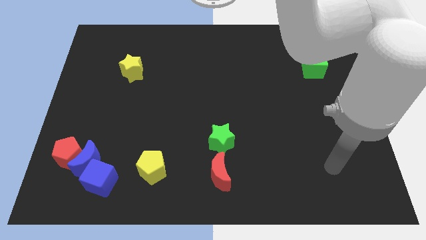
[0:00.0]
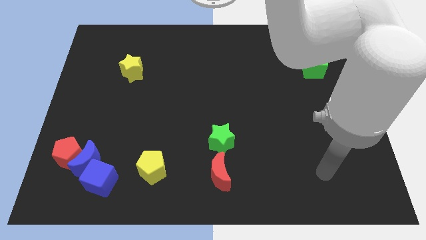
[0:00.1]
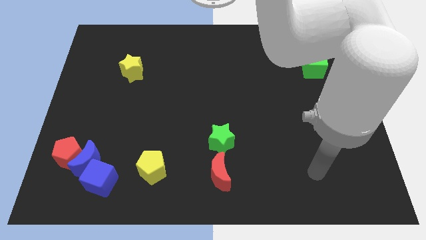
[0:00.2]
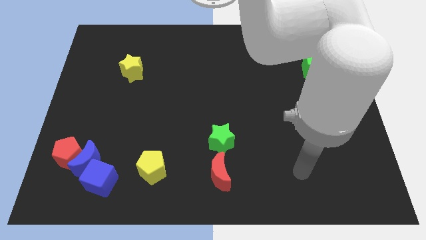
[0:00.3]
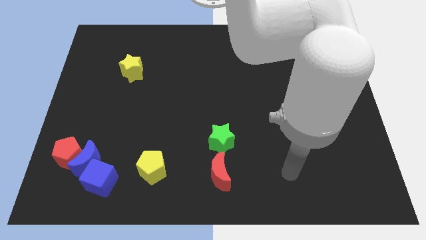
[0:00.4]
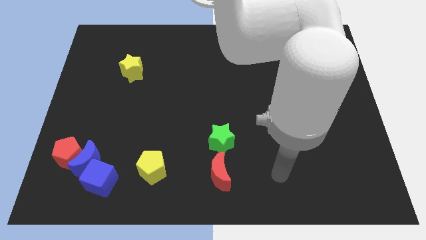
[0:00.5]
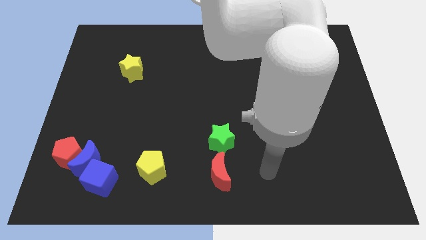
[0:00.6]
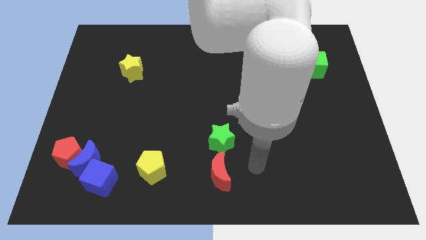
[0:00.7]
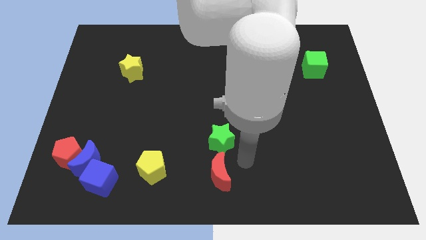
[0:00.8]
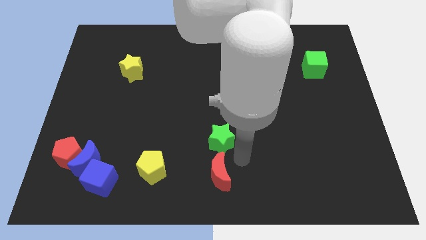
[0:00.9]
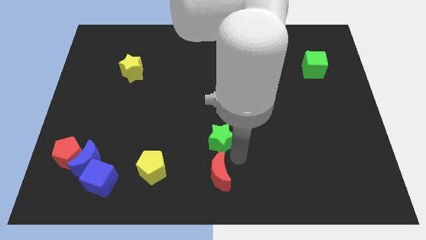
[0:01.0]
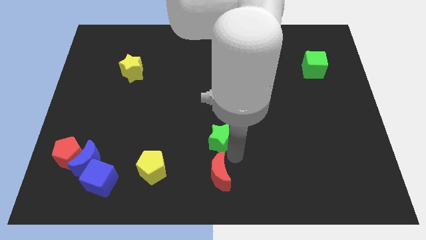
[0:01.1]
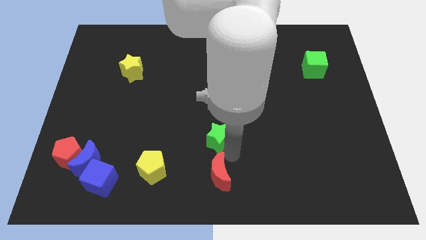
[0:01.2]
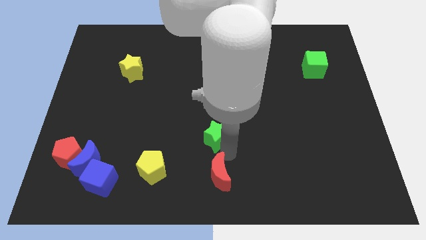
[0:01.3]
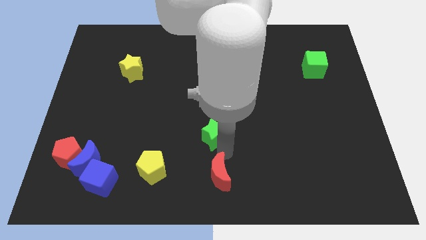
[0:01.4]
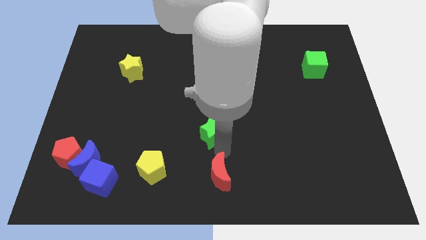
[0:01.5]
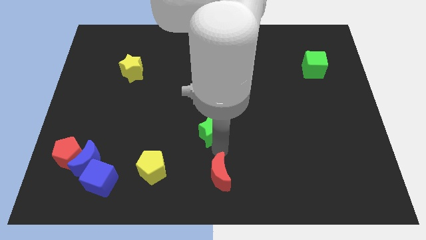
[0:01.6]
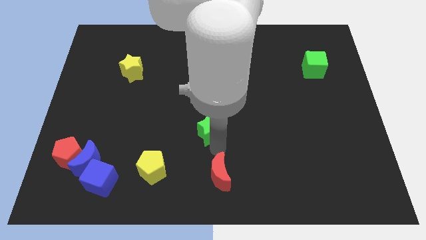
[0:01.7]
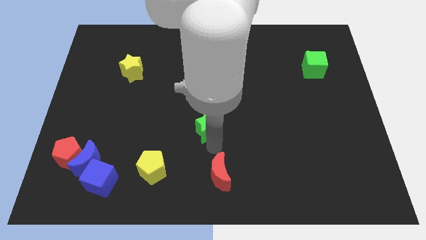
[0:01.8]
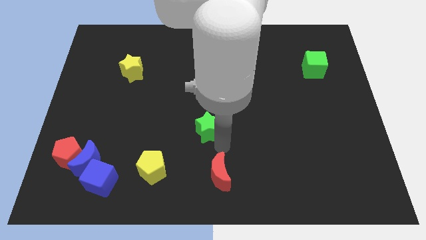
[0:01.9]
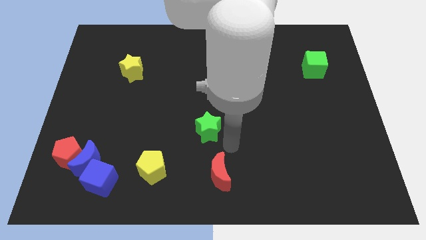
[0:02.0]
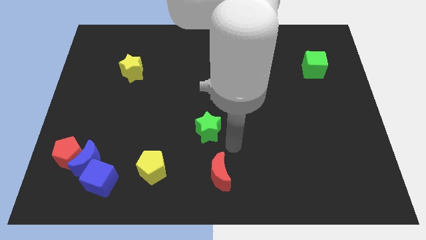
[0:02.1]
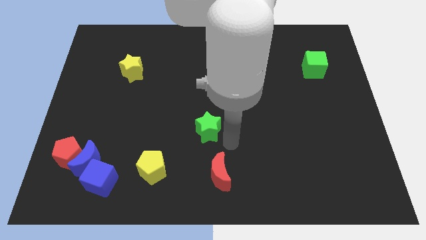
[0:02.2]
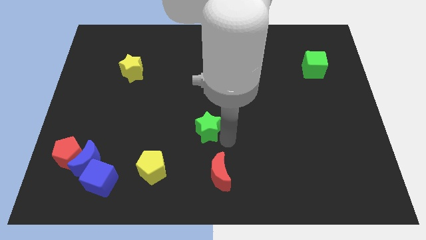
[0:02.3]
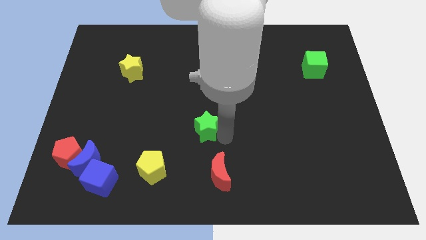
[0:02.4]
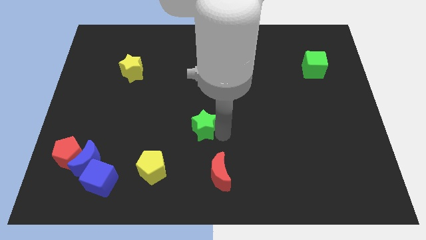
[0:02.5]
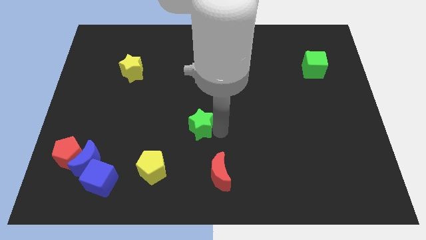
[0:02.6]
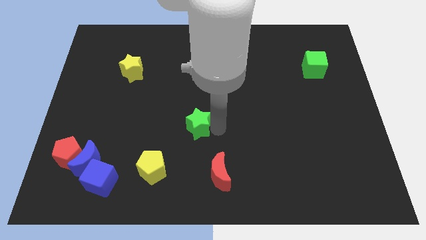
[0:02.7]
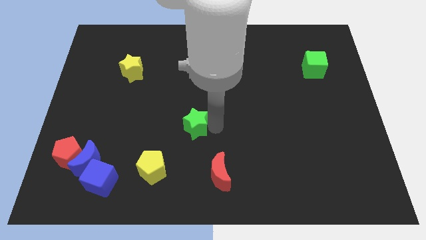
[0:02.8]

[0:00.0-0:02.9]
move the green star somewhat diagonally up and to the left

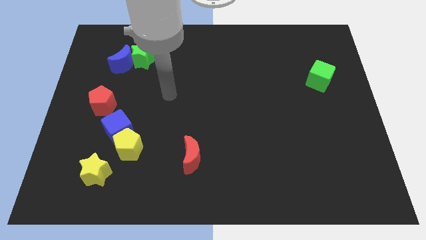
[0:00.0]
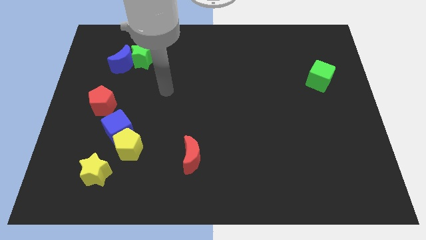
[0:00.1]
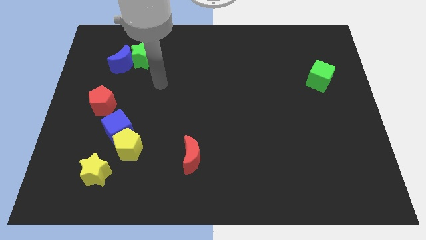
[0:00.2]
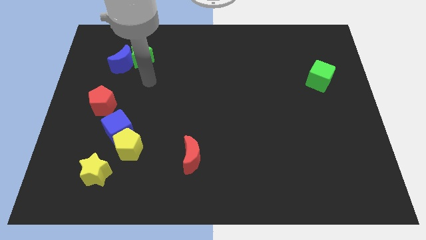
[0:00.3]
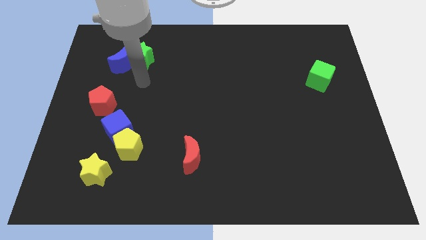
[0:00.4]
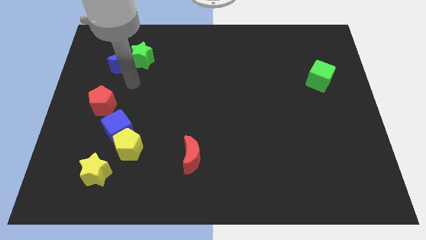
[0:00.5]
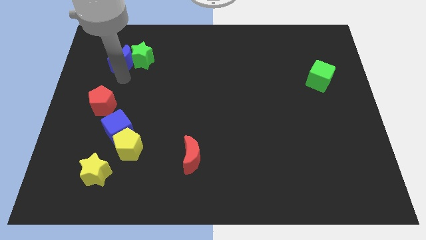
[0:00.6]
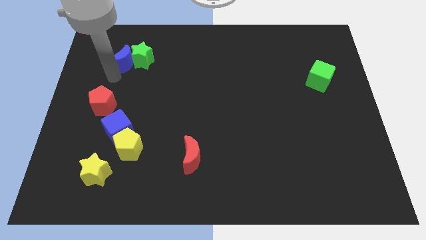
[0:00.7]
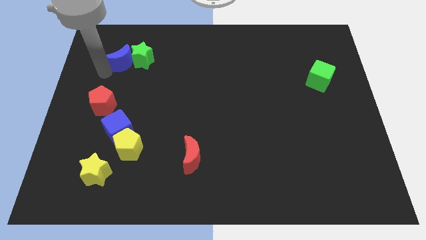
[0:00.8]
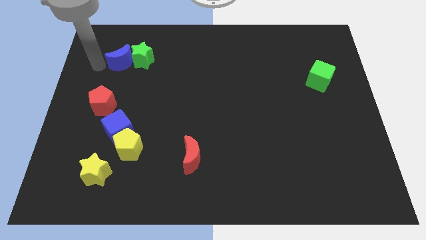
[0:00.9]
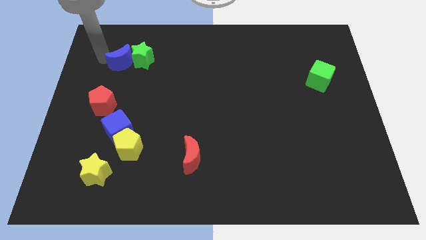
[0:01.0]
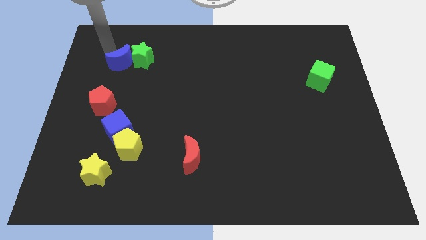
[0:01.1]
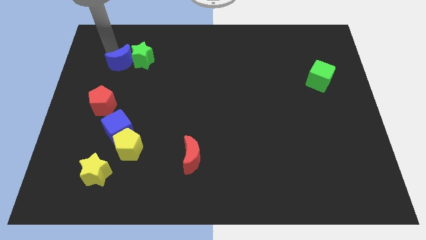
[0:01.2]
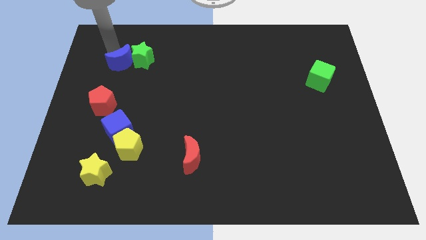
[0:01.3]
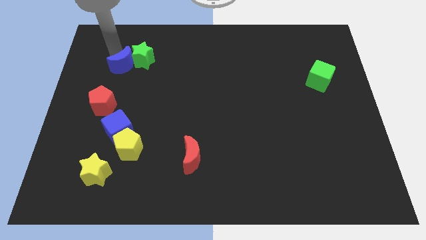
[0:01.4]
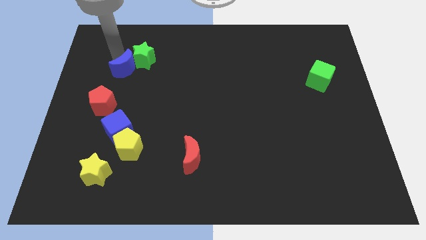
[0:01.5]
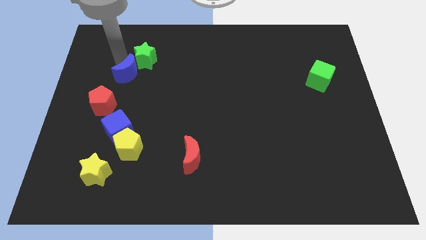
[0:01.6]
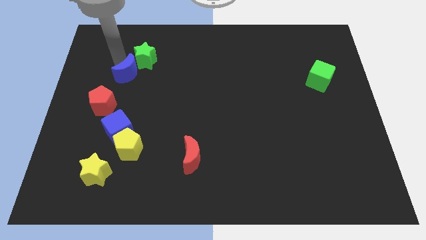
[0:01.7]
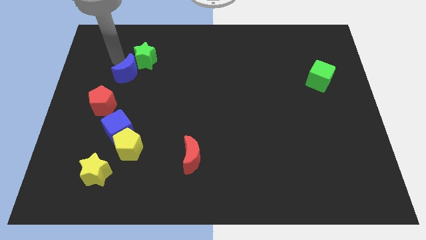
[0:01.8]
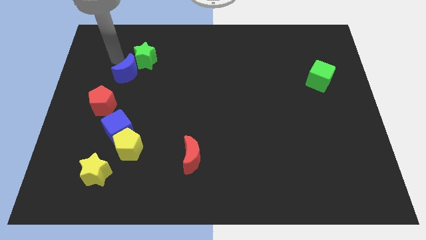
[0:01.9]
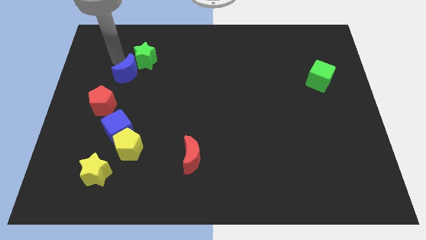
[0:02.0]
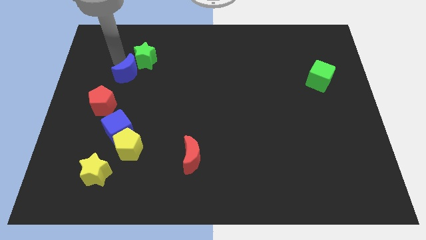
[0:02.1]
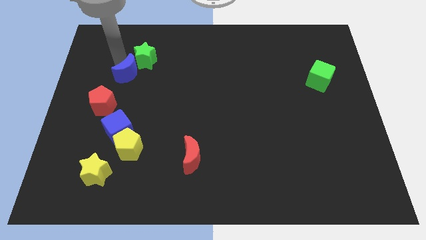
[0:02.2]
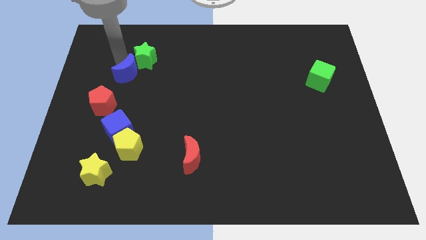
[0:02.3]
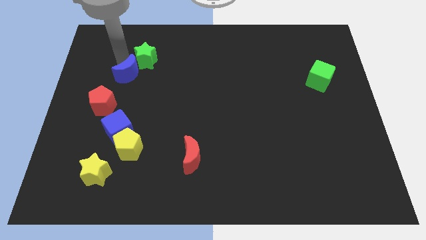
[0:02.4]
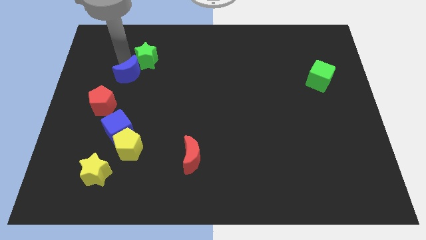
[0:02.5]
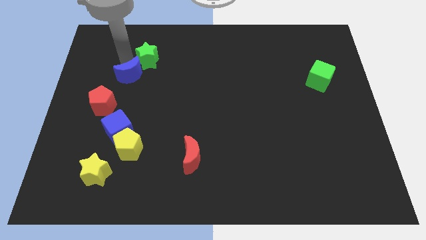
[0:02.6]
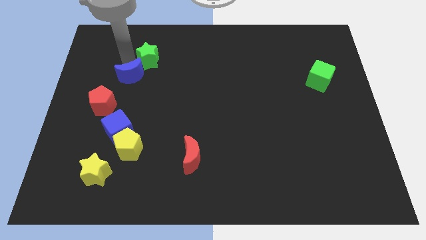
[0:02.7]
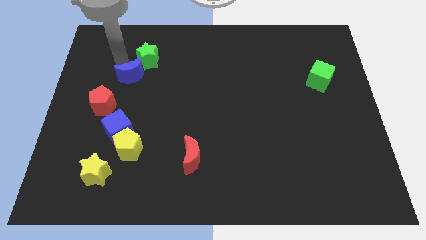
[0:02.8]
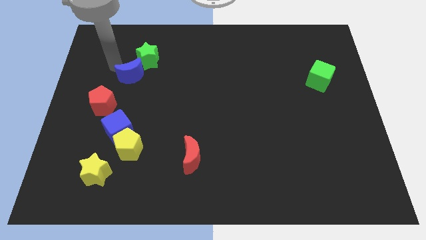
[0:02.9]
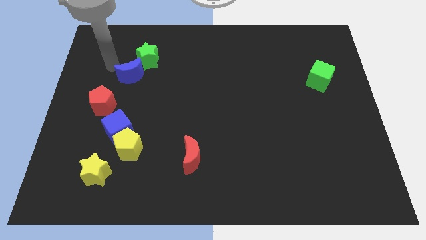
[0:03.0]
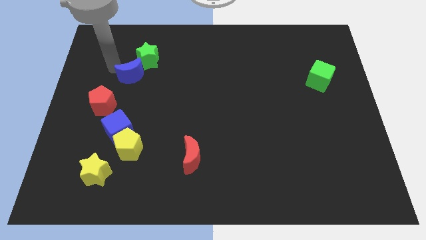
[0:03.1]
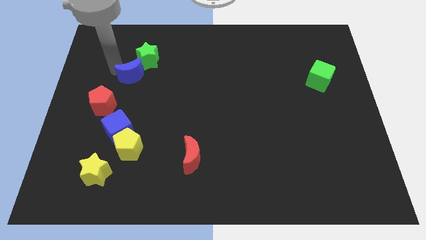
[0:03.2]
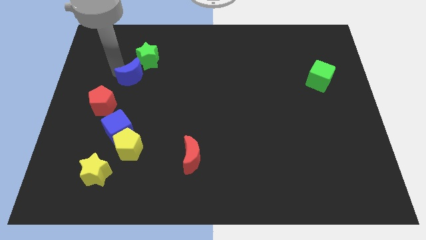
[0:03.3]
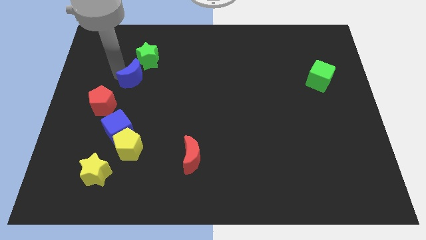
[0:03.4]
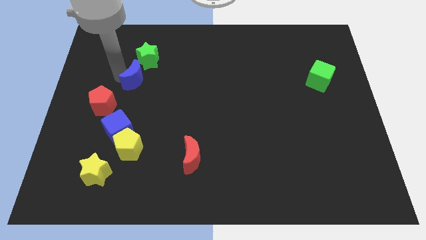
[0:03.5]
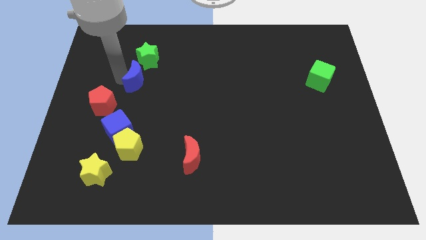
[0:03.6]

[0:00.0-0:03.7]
move the blue moon a little bit downwards and right diagonally

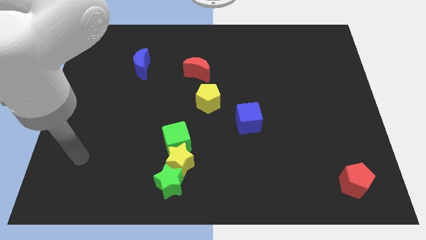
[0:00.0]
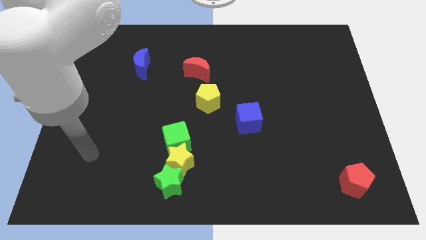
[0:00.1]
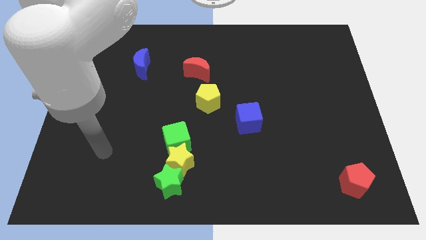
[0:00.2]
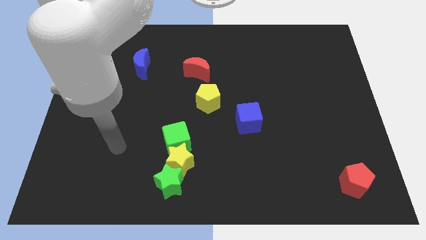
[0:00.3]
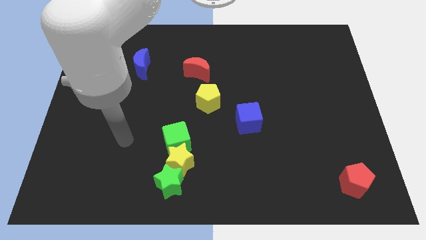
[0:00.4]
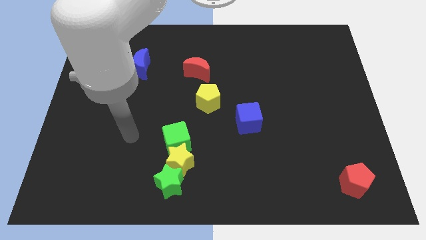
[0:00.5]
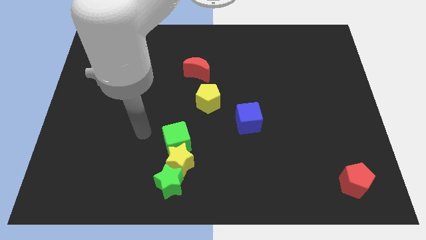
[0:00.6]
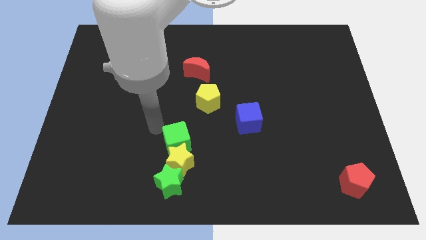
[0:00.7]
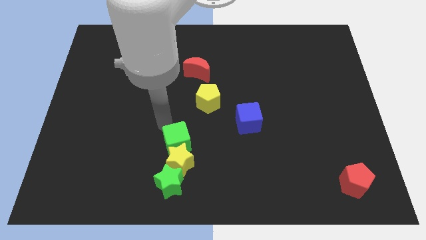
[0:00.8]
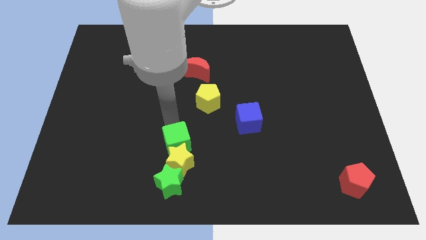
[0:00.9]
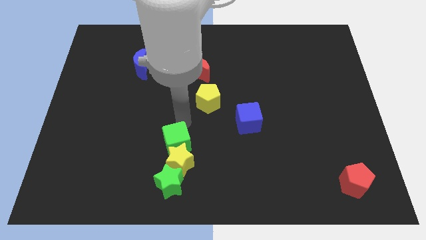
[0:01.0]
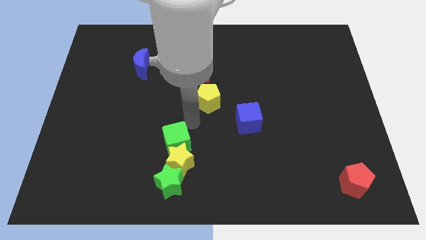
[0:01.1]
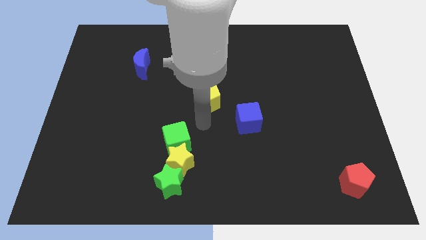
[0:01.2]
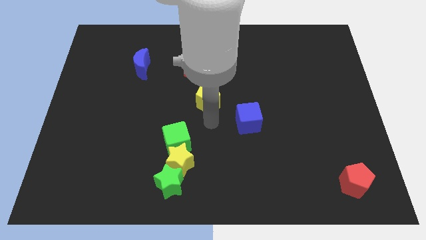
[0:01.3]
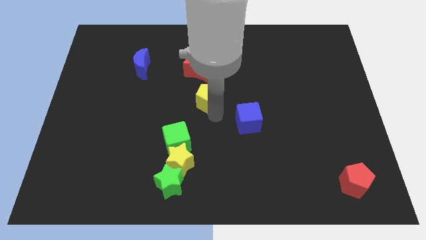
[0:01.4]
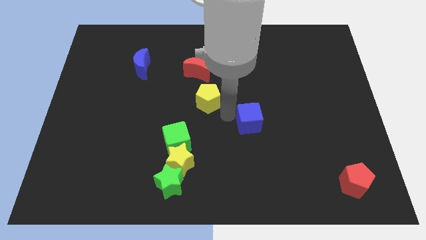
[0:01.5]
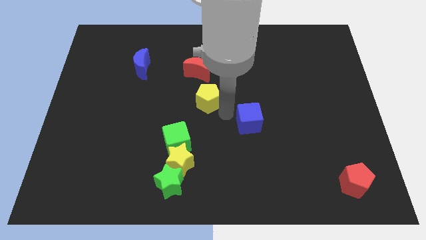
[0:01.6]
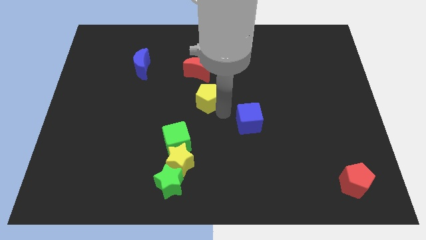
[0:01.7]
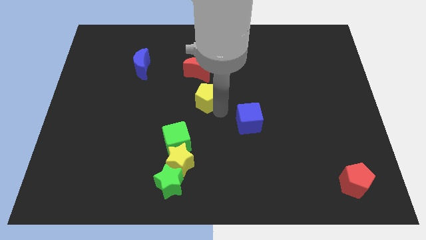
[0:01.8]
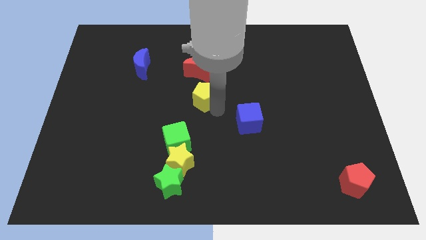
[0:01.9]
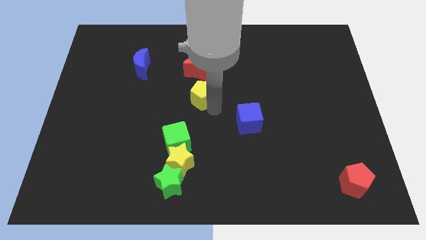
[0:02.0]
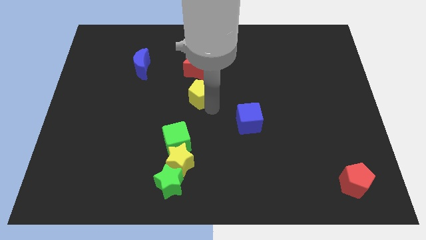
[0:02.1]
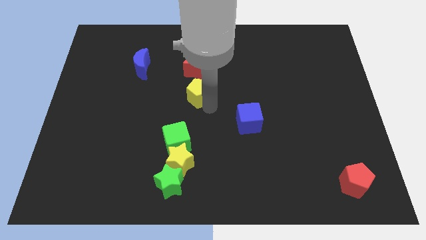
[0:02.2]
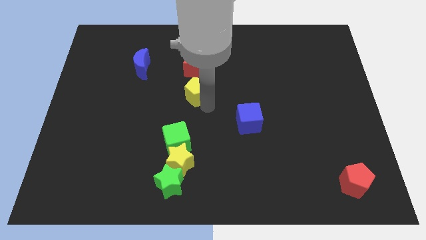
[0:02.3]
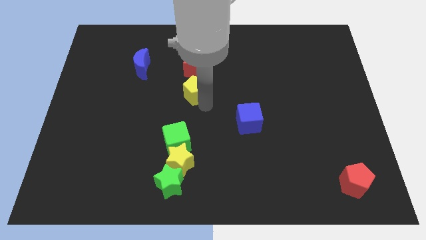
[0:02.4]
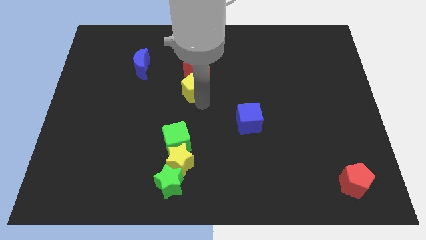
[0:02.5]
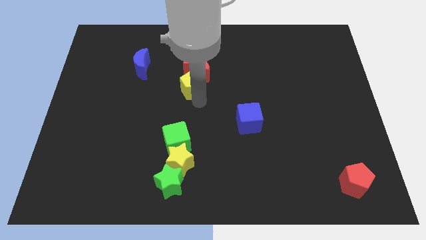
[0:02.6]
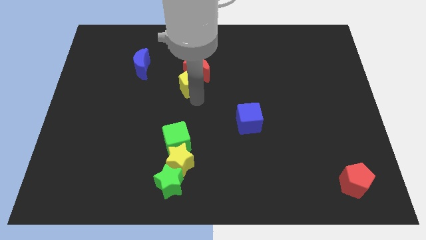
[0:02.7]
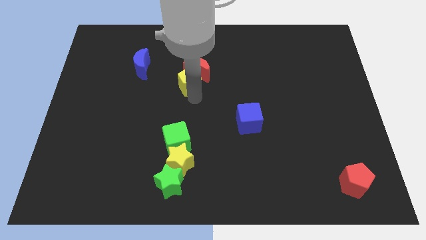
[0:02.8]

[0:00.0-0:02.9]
slightly move the yellow pentagon diagonally upwards and left
